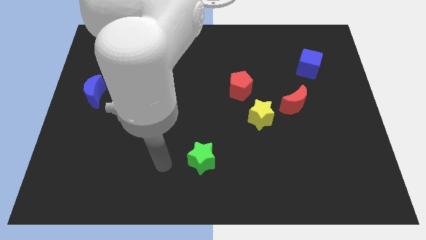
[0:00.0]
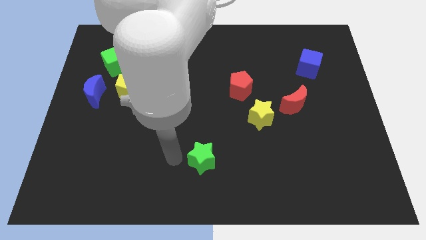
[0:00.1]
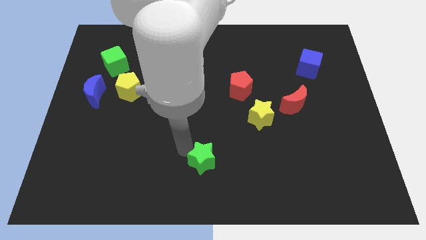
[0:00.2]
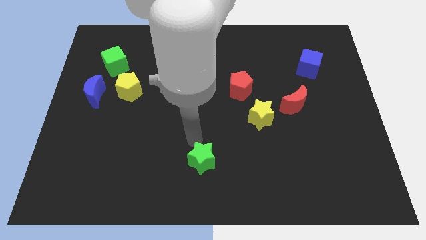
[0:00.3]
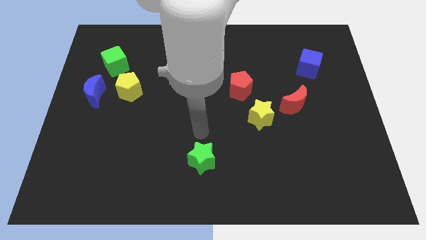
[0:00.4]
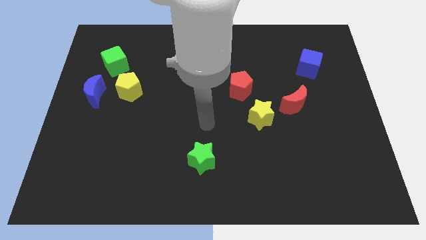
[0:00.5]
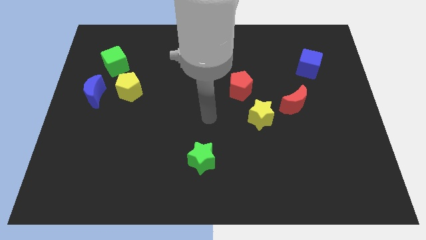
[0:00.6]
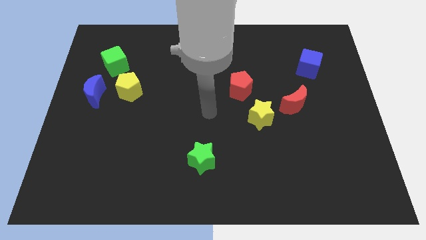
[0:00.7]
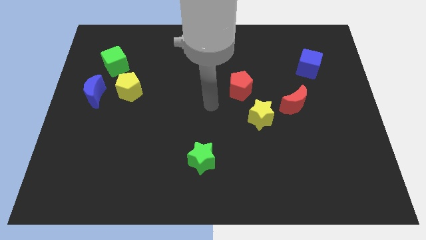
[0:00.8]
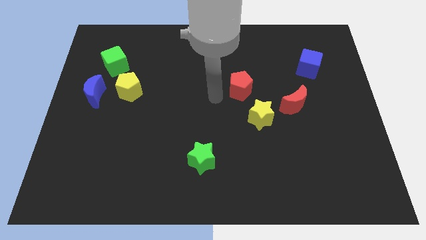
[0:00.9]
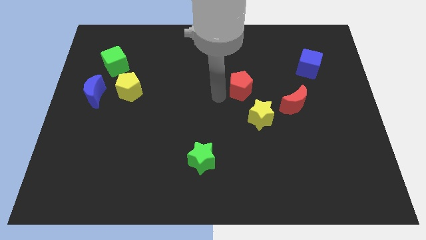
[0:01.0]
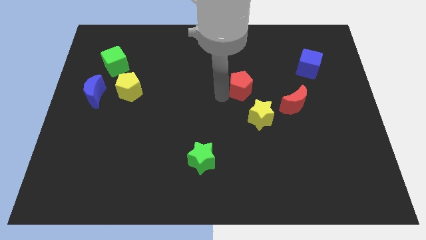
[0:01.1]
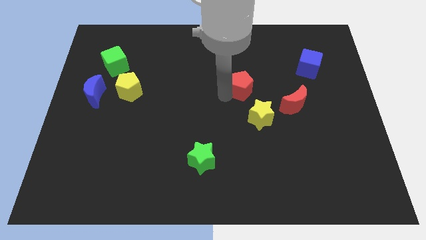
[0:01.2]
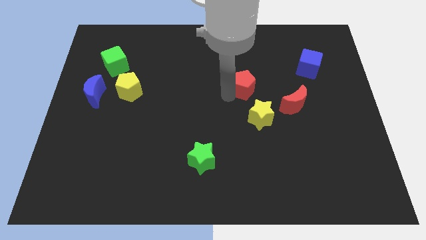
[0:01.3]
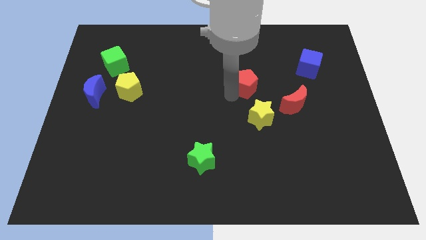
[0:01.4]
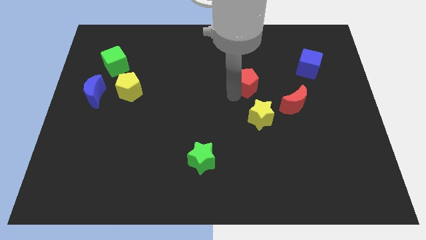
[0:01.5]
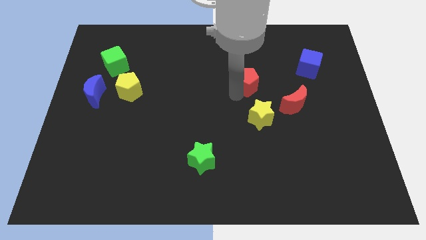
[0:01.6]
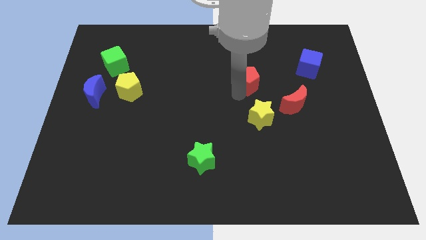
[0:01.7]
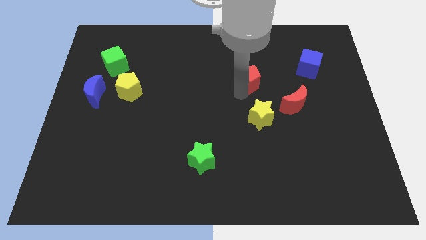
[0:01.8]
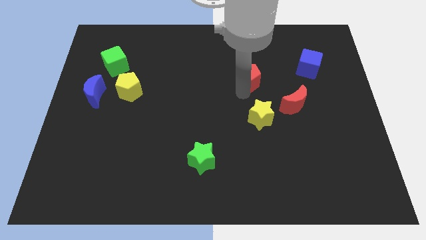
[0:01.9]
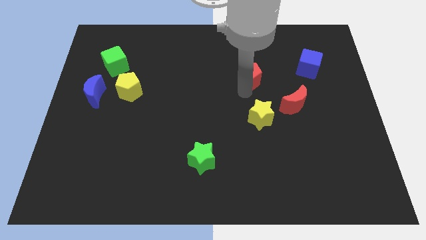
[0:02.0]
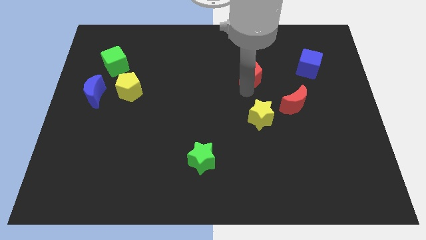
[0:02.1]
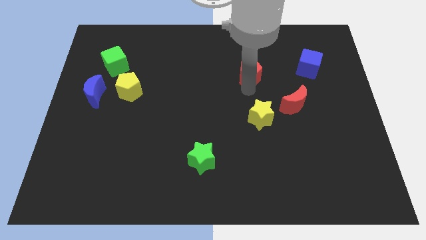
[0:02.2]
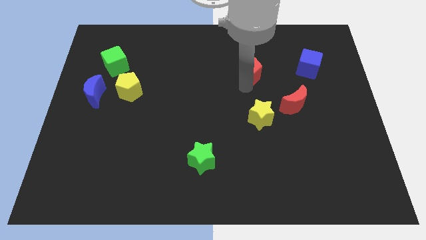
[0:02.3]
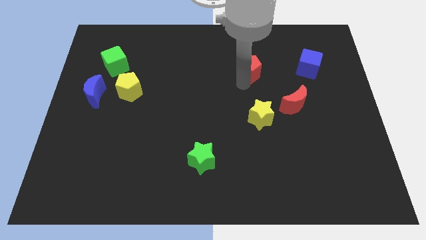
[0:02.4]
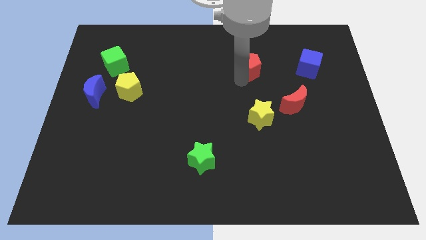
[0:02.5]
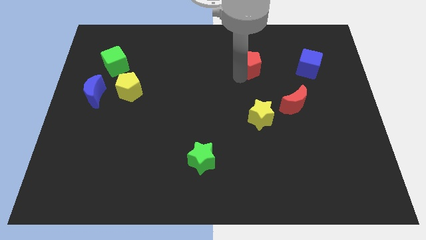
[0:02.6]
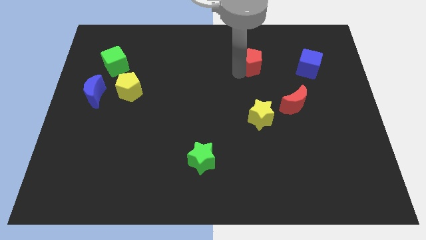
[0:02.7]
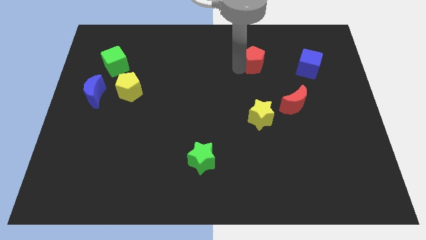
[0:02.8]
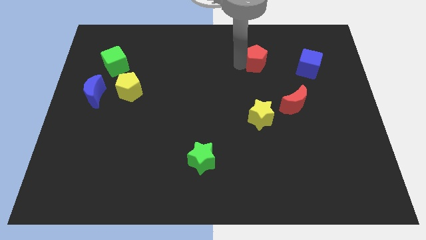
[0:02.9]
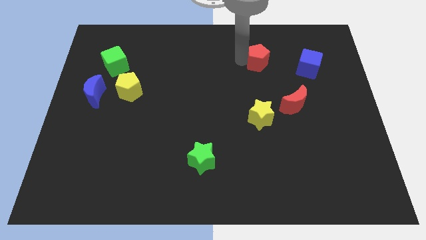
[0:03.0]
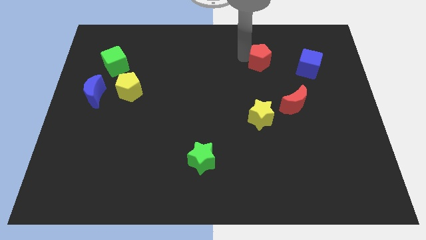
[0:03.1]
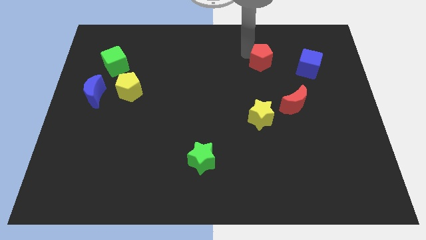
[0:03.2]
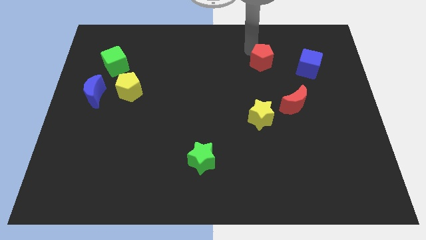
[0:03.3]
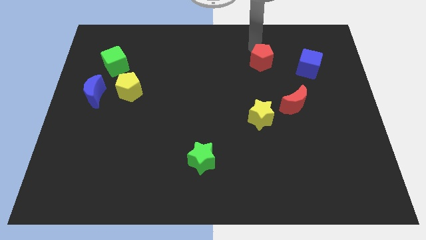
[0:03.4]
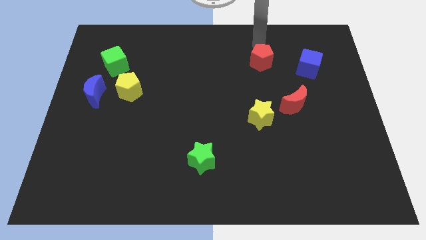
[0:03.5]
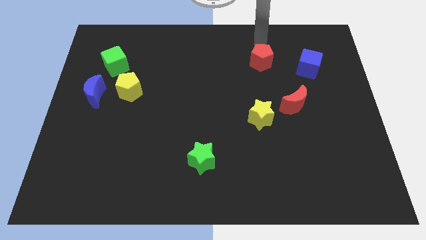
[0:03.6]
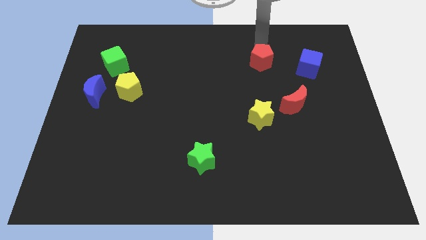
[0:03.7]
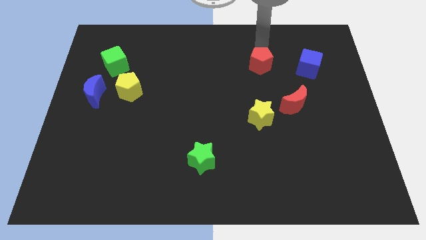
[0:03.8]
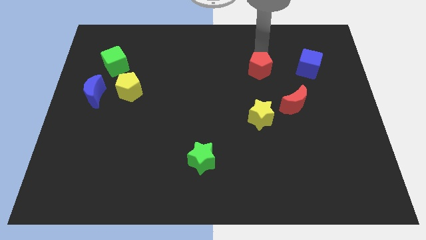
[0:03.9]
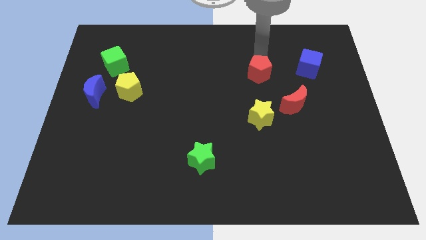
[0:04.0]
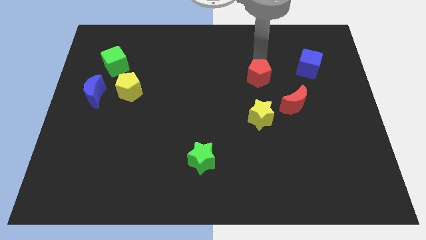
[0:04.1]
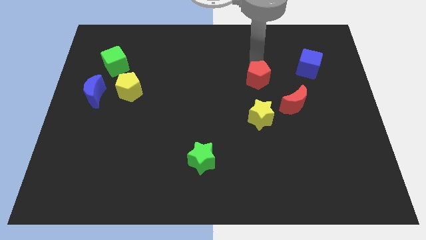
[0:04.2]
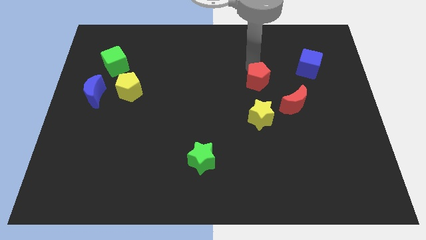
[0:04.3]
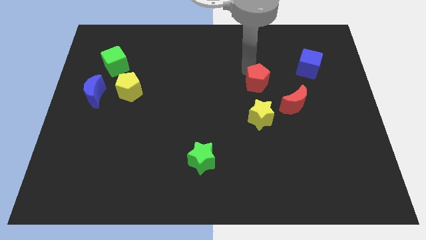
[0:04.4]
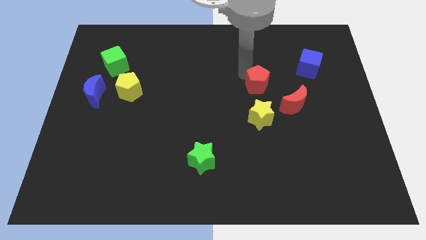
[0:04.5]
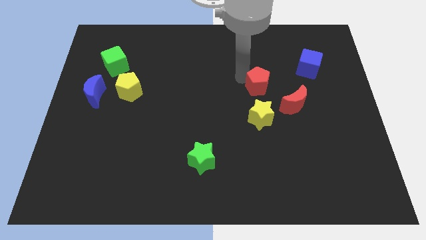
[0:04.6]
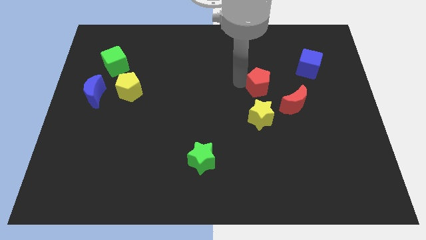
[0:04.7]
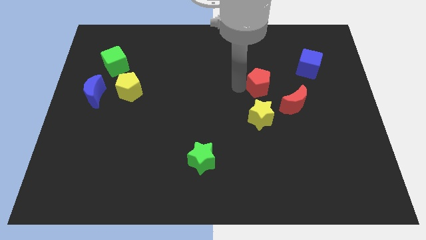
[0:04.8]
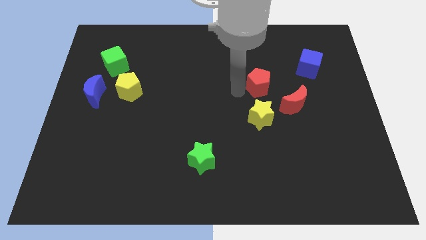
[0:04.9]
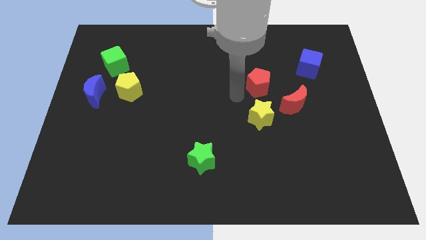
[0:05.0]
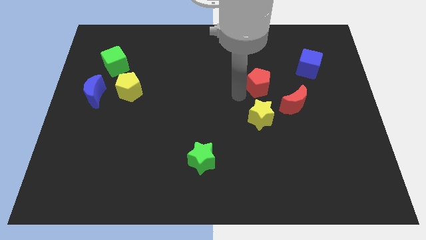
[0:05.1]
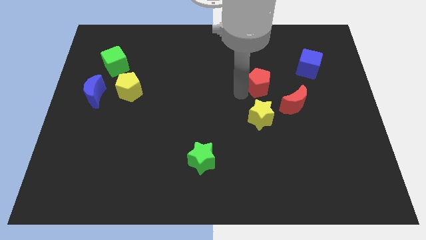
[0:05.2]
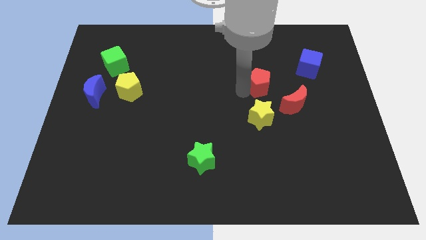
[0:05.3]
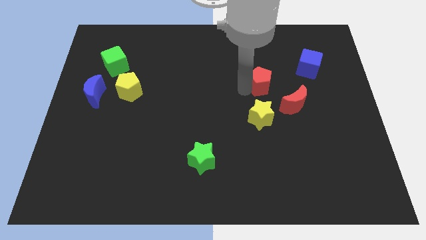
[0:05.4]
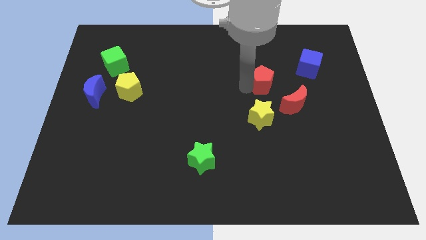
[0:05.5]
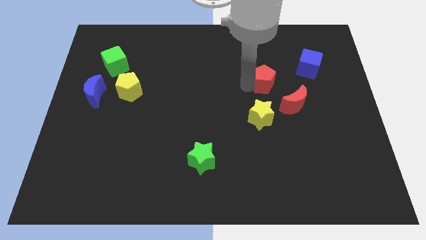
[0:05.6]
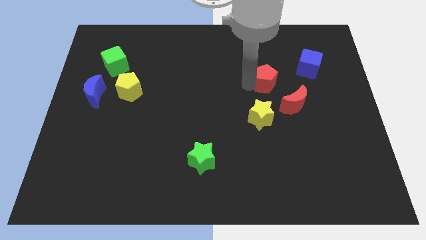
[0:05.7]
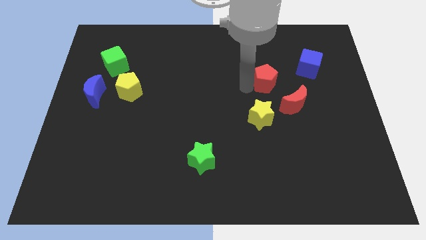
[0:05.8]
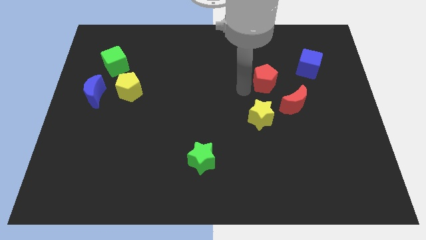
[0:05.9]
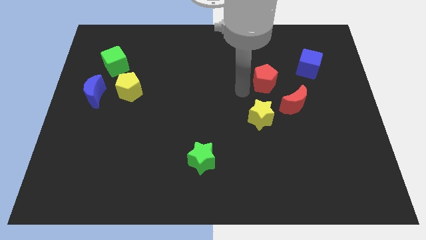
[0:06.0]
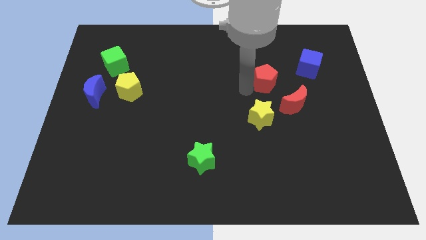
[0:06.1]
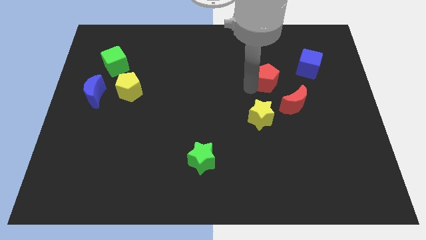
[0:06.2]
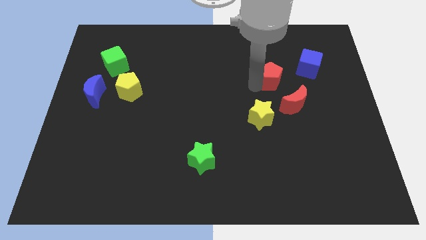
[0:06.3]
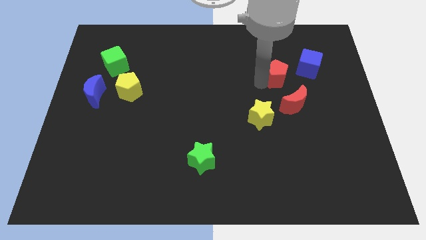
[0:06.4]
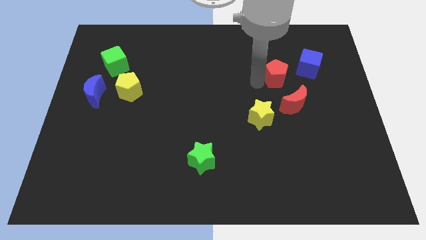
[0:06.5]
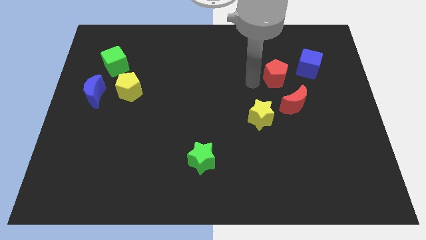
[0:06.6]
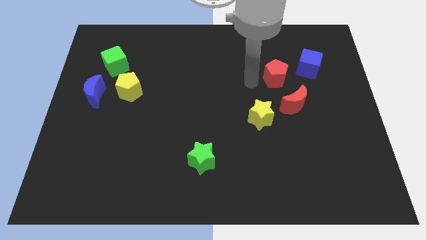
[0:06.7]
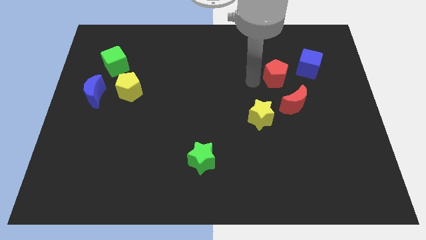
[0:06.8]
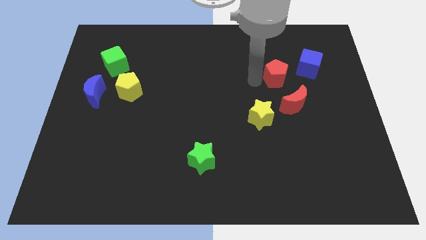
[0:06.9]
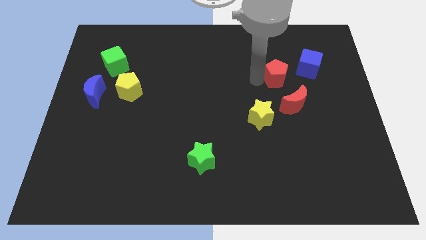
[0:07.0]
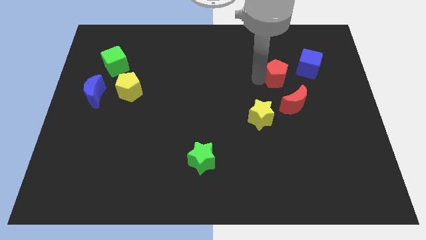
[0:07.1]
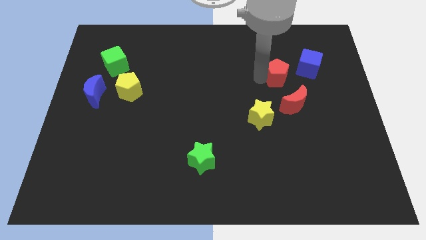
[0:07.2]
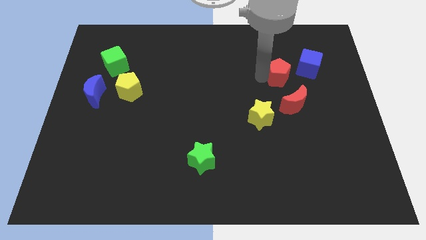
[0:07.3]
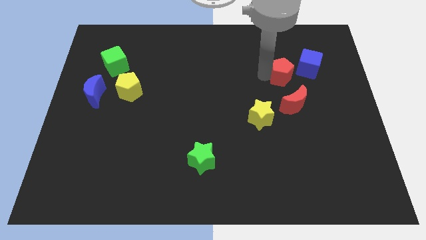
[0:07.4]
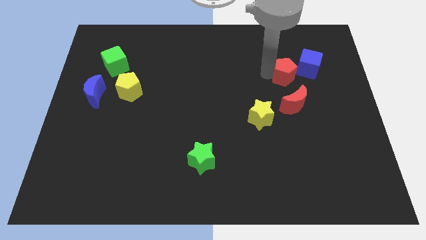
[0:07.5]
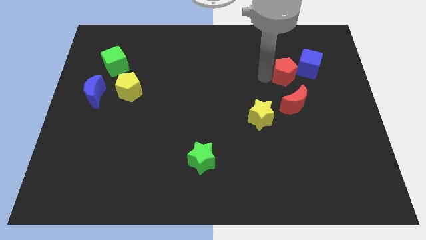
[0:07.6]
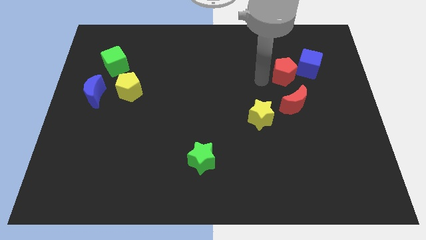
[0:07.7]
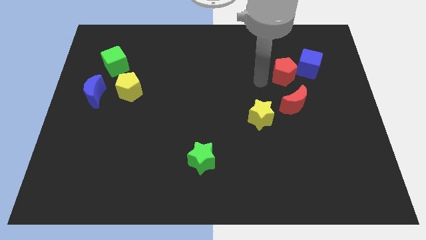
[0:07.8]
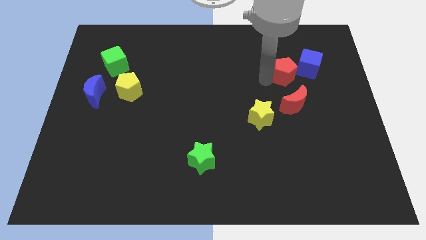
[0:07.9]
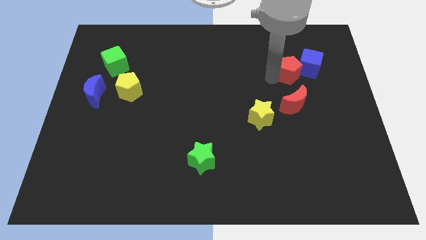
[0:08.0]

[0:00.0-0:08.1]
move the red pentagon next to the blue cube
